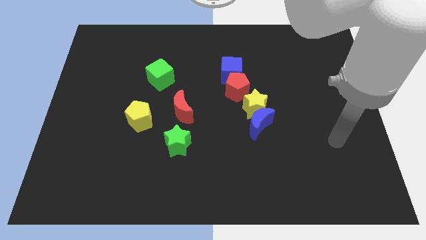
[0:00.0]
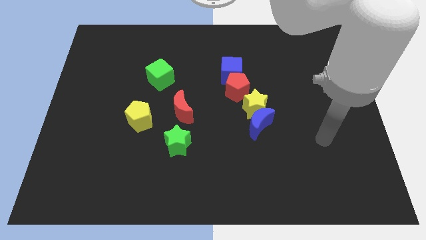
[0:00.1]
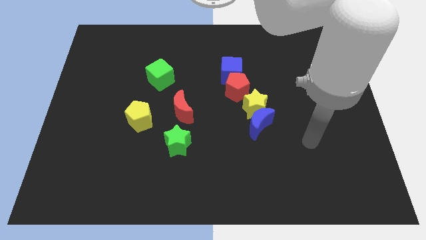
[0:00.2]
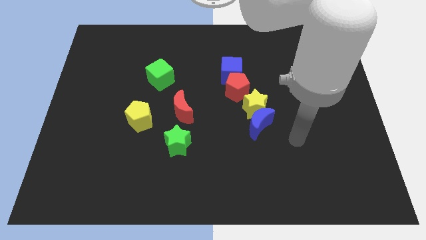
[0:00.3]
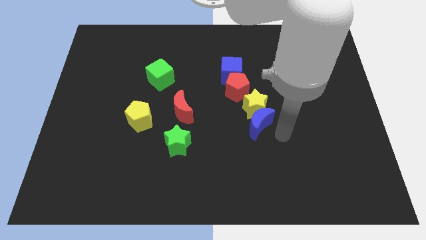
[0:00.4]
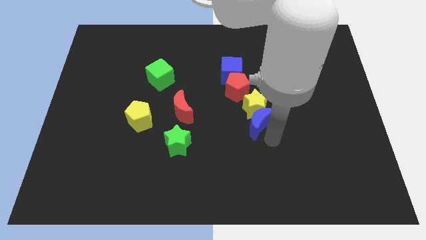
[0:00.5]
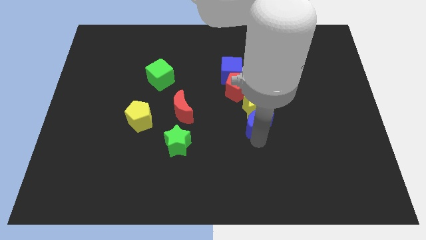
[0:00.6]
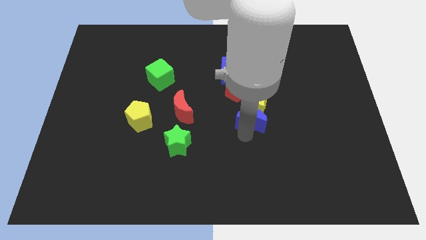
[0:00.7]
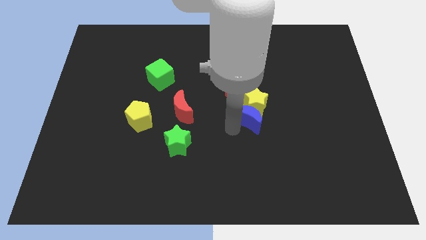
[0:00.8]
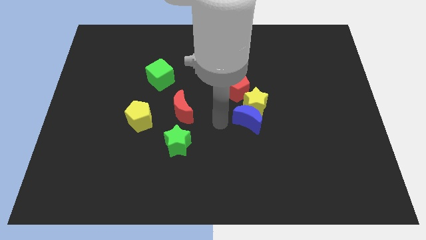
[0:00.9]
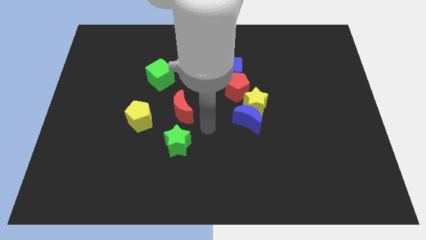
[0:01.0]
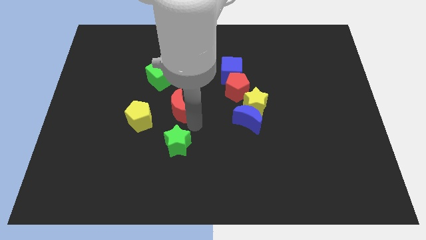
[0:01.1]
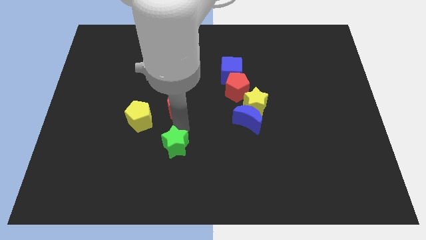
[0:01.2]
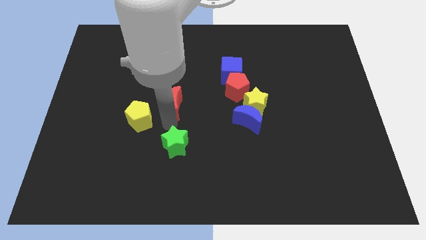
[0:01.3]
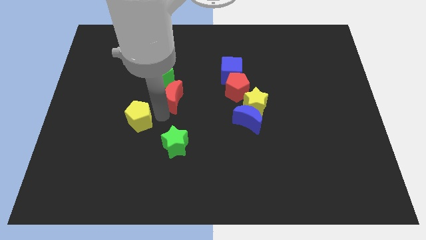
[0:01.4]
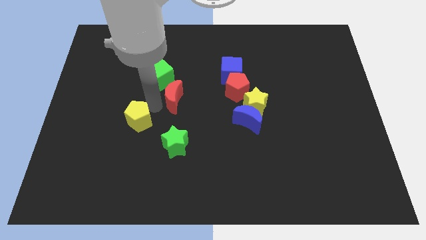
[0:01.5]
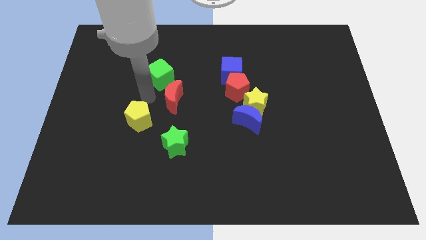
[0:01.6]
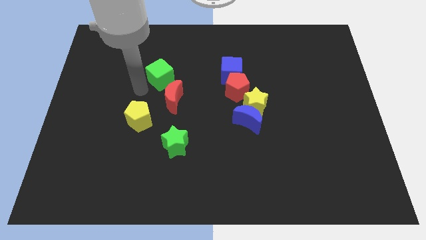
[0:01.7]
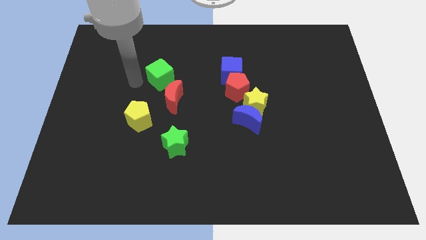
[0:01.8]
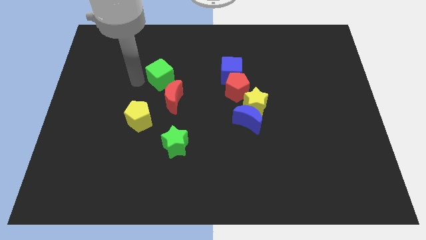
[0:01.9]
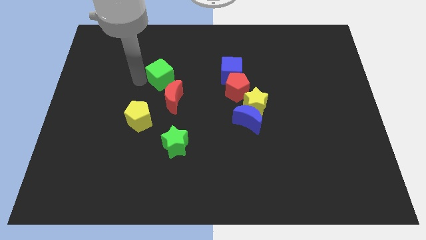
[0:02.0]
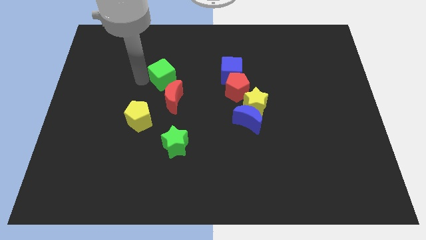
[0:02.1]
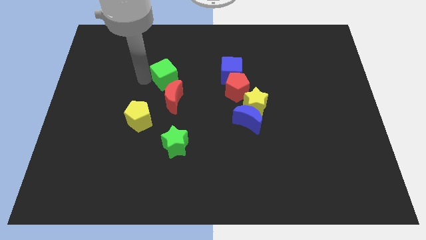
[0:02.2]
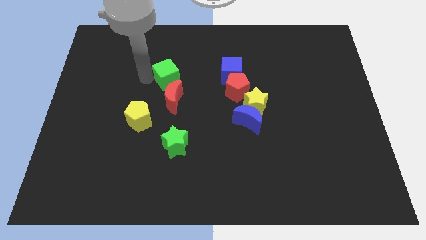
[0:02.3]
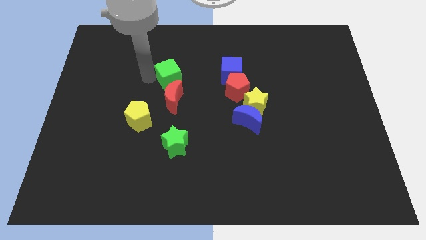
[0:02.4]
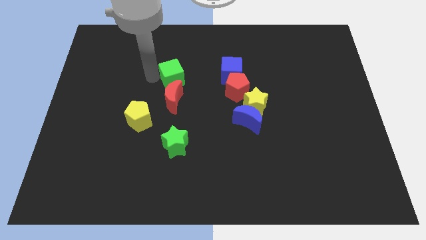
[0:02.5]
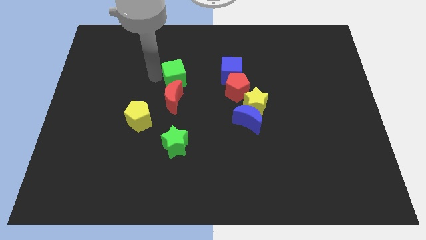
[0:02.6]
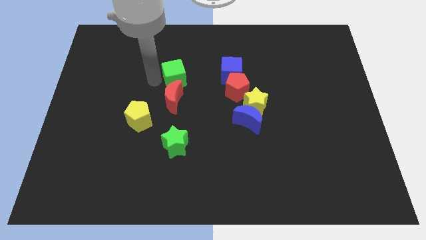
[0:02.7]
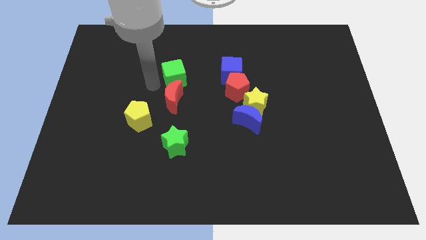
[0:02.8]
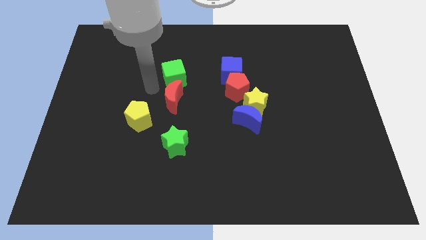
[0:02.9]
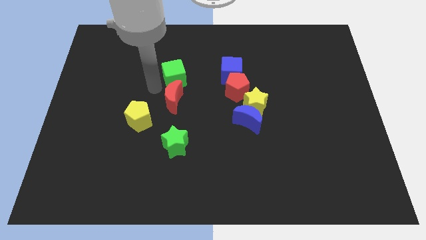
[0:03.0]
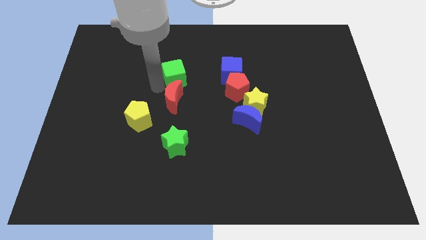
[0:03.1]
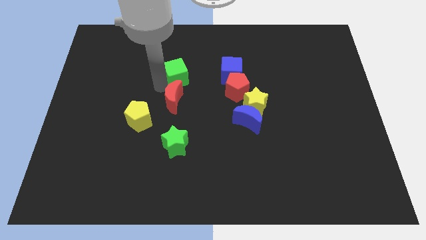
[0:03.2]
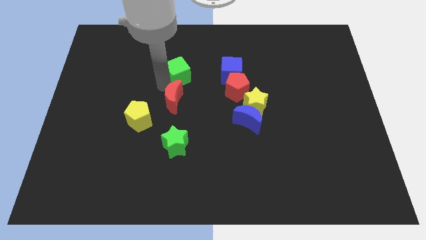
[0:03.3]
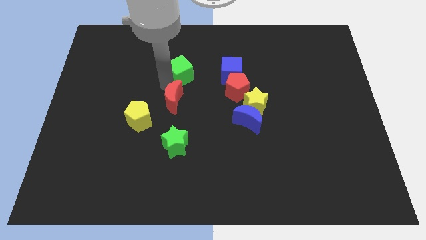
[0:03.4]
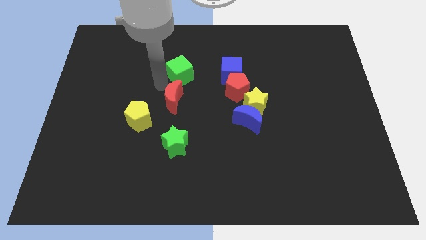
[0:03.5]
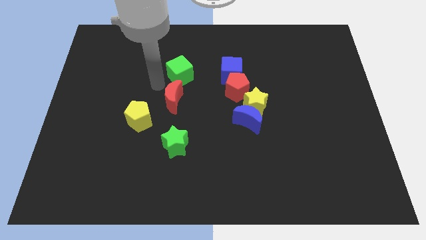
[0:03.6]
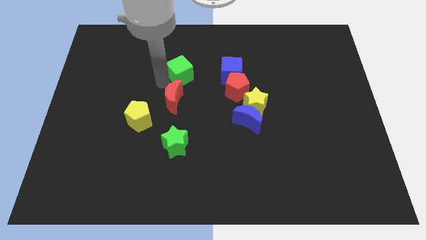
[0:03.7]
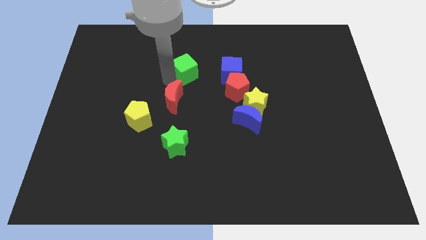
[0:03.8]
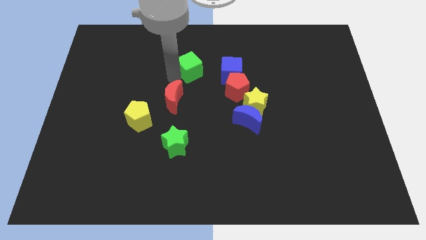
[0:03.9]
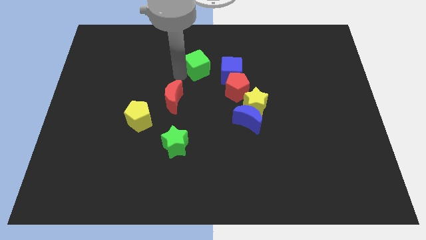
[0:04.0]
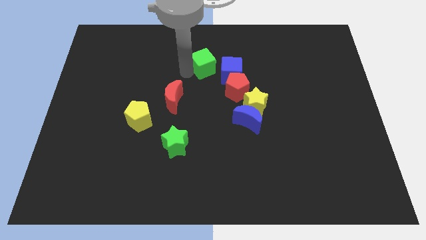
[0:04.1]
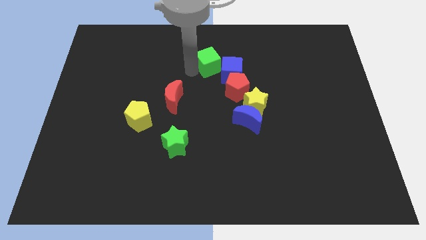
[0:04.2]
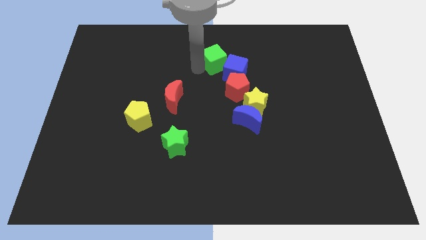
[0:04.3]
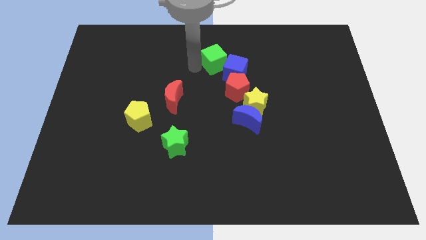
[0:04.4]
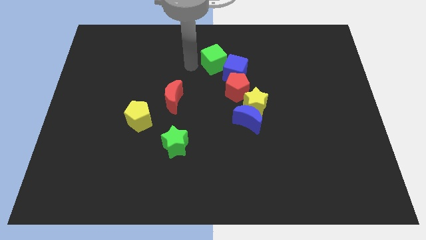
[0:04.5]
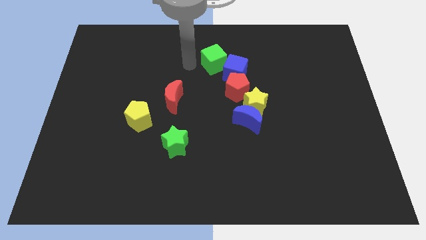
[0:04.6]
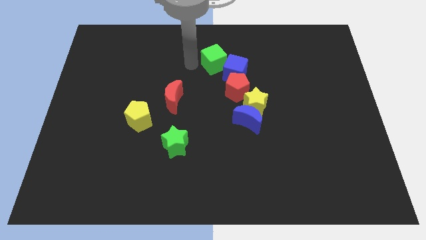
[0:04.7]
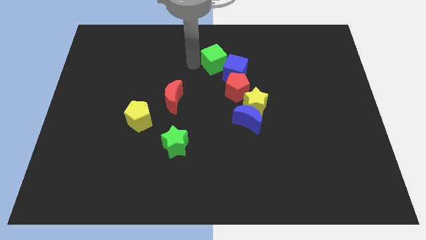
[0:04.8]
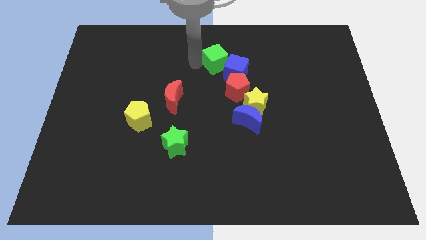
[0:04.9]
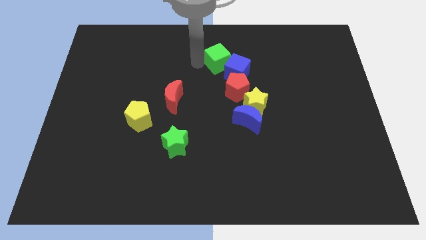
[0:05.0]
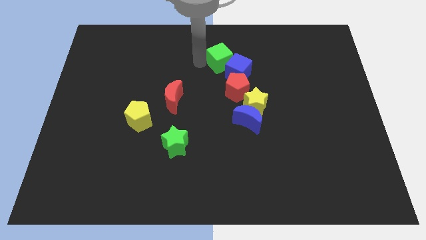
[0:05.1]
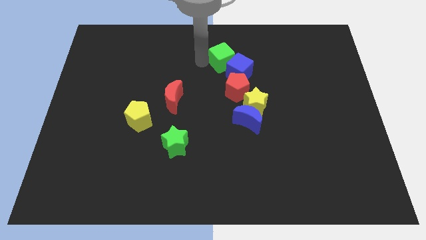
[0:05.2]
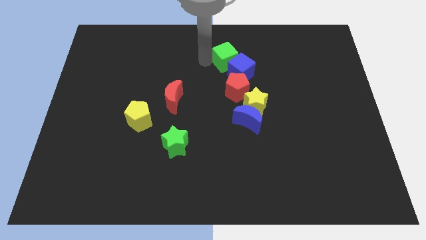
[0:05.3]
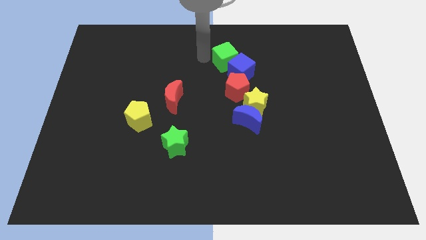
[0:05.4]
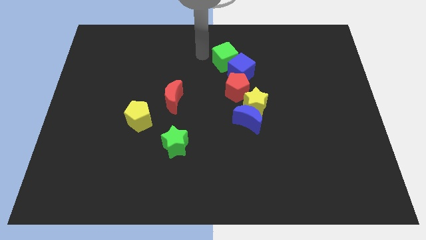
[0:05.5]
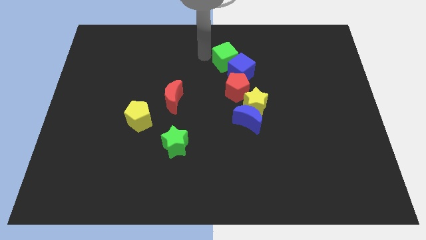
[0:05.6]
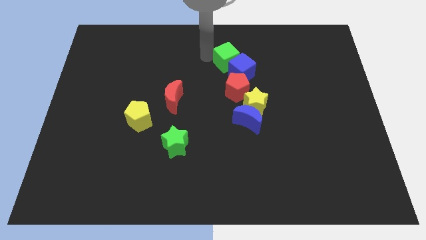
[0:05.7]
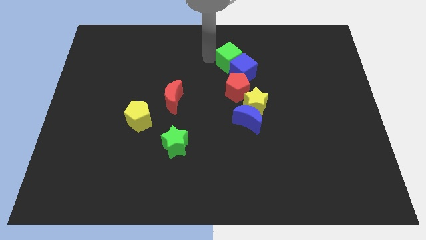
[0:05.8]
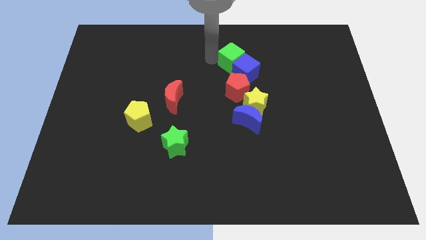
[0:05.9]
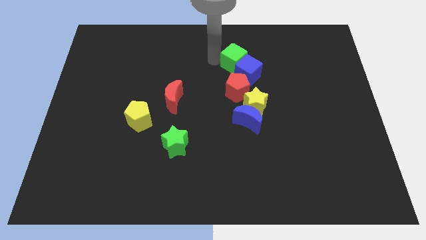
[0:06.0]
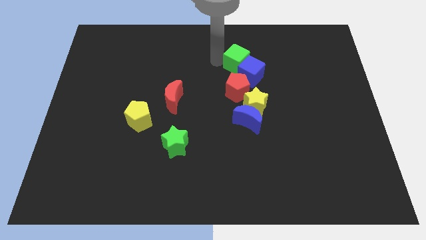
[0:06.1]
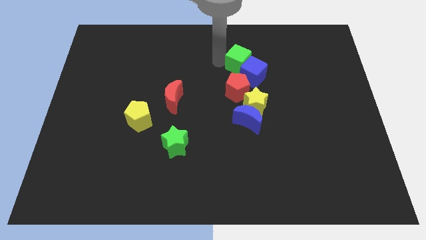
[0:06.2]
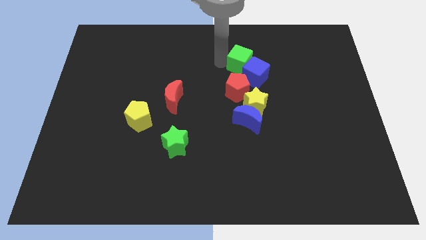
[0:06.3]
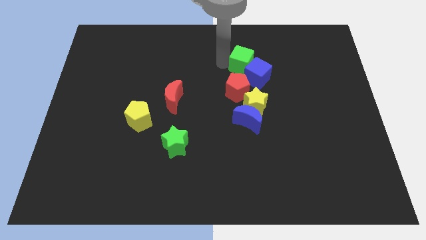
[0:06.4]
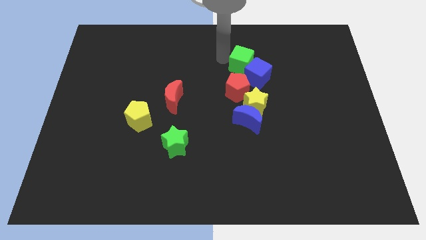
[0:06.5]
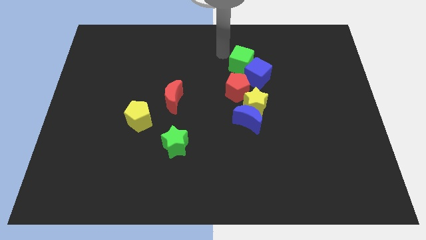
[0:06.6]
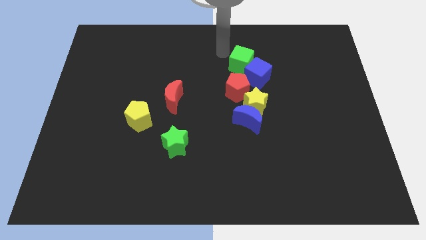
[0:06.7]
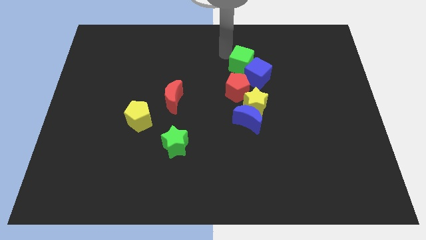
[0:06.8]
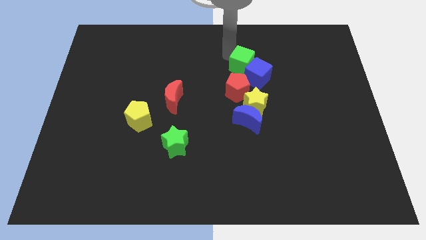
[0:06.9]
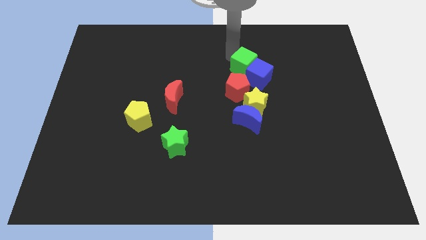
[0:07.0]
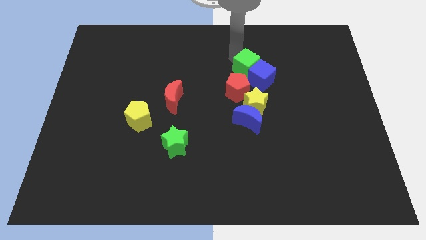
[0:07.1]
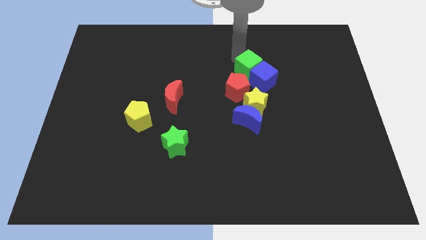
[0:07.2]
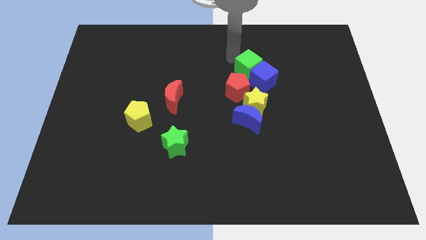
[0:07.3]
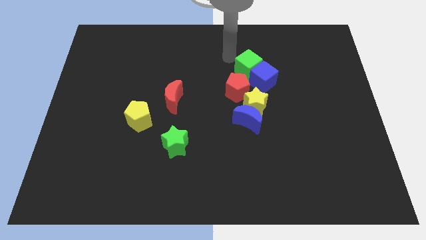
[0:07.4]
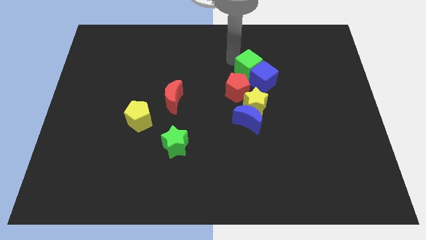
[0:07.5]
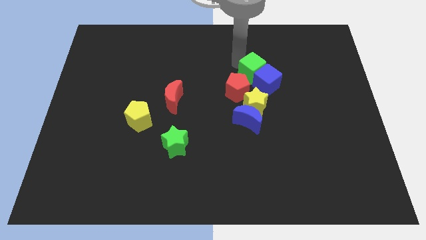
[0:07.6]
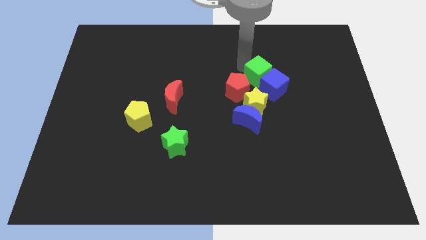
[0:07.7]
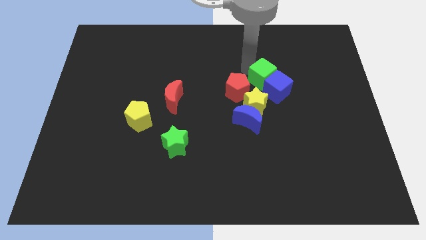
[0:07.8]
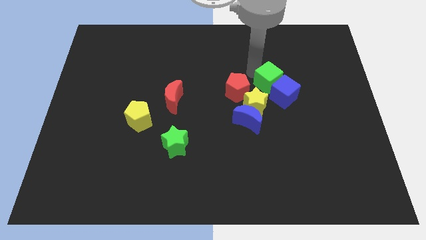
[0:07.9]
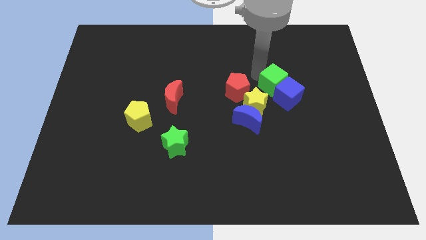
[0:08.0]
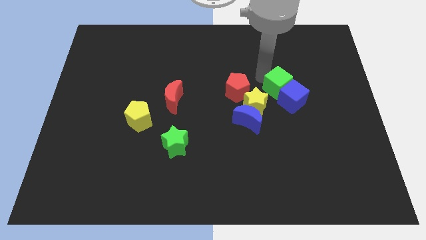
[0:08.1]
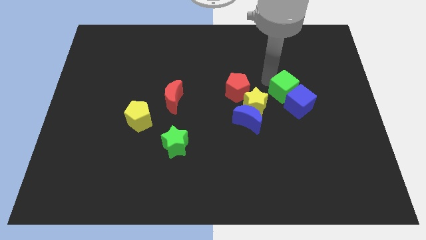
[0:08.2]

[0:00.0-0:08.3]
move the green cube to the right side of the yellow star
